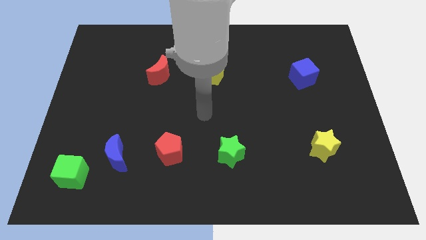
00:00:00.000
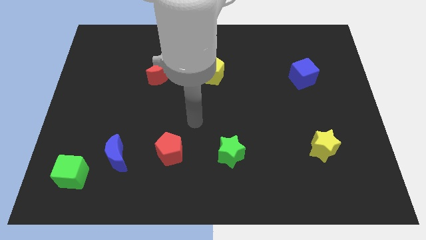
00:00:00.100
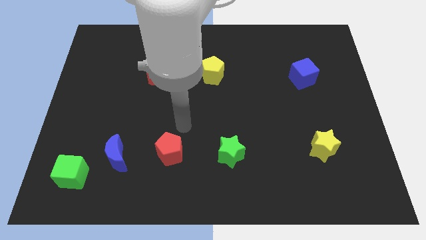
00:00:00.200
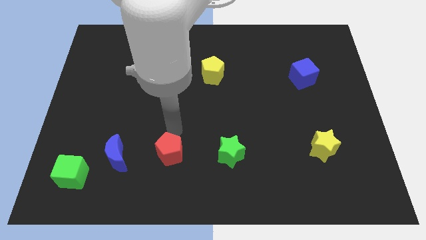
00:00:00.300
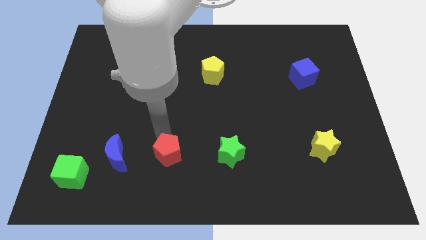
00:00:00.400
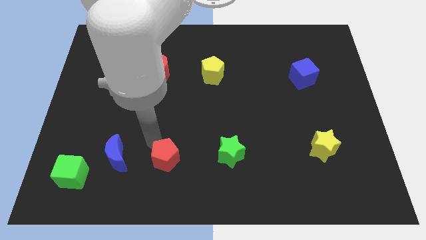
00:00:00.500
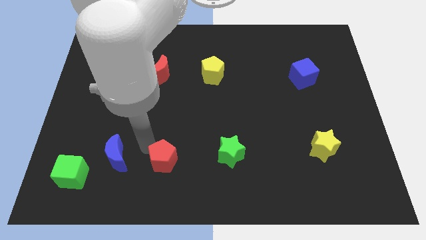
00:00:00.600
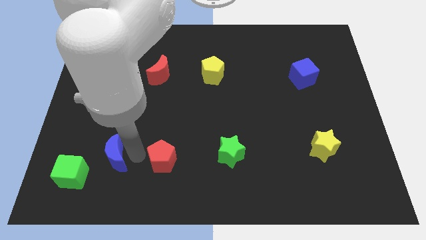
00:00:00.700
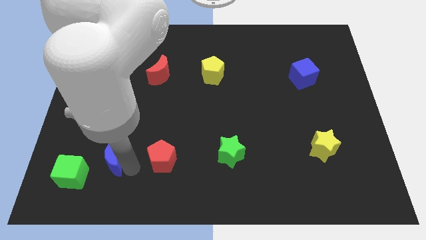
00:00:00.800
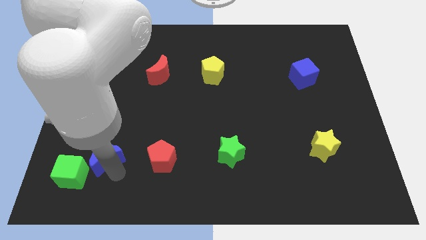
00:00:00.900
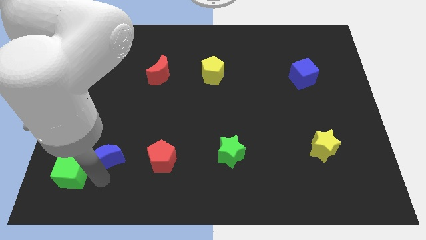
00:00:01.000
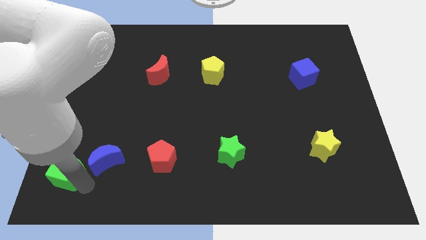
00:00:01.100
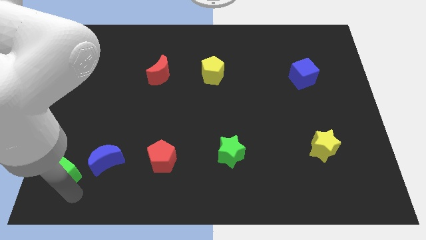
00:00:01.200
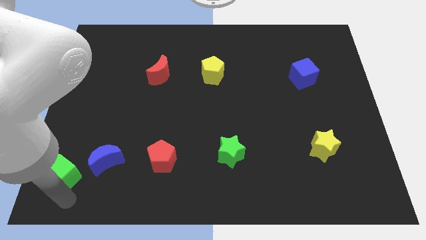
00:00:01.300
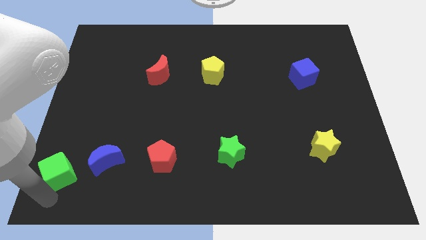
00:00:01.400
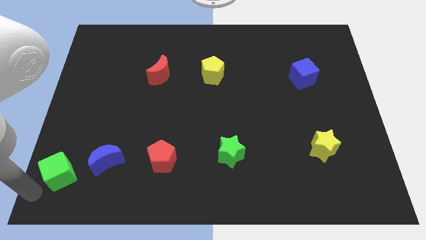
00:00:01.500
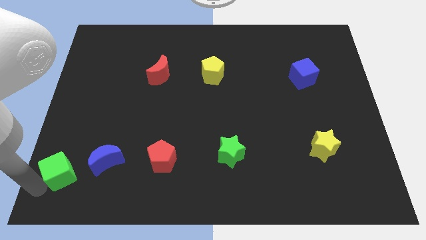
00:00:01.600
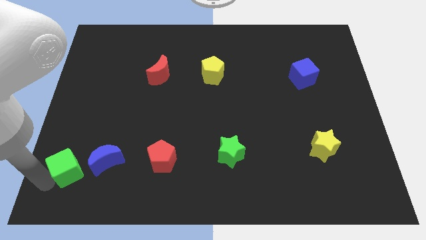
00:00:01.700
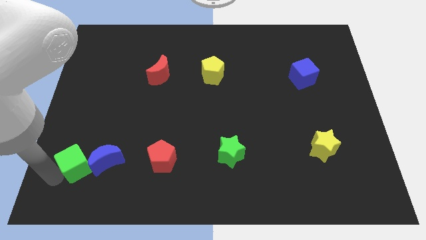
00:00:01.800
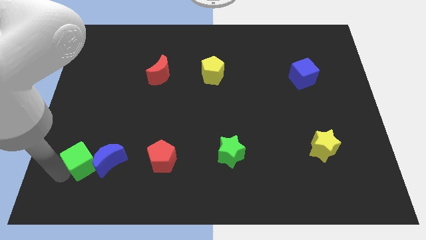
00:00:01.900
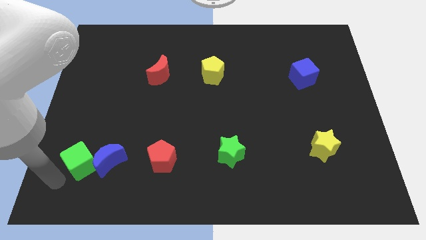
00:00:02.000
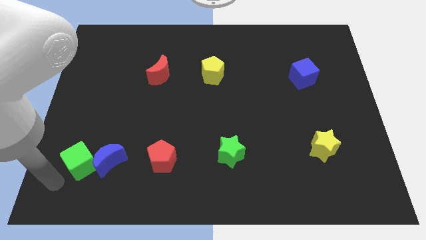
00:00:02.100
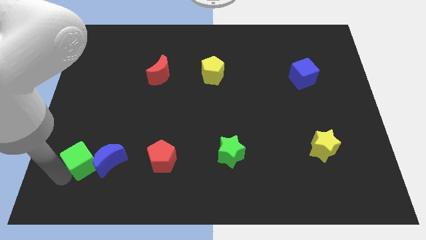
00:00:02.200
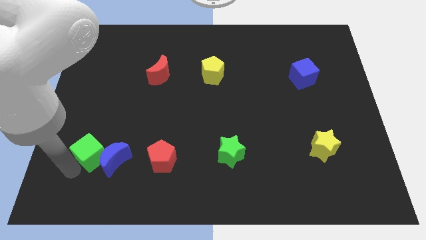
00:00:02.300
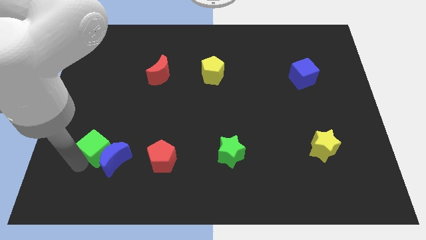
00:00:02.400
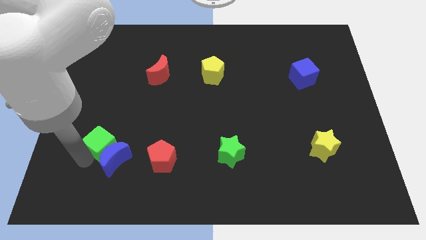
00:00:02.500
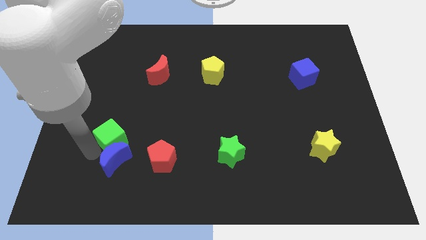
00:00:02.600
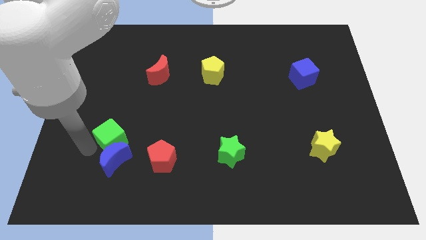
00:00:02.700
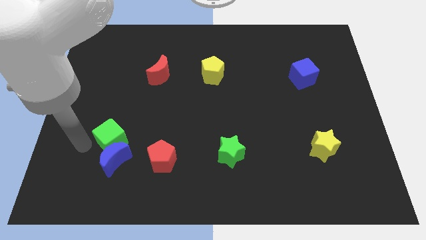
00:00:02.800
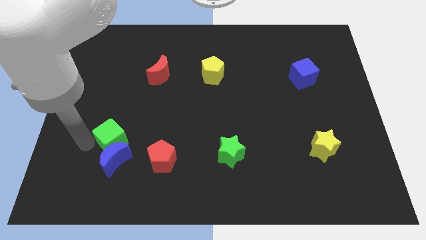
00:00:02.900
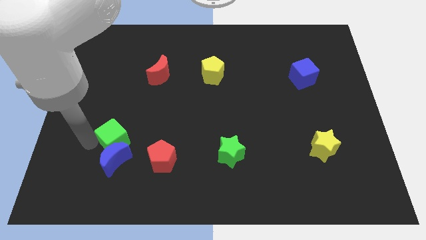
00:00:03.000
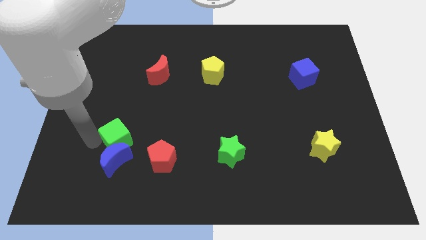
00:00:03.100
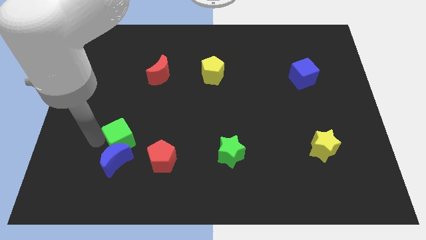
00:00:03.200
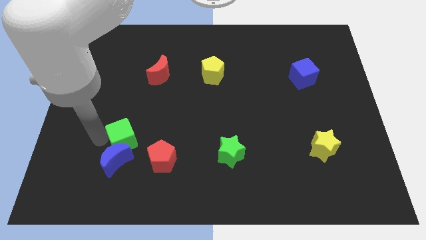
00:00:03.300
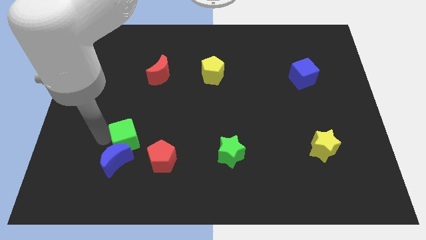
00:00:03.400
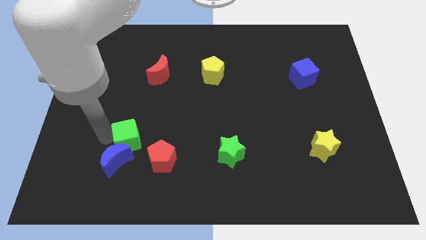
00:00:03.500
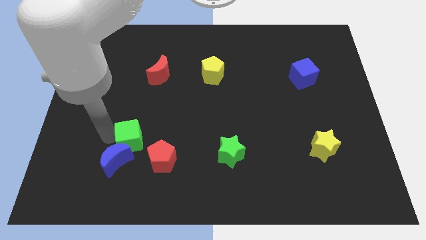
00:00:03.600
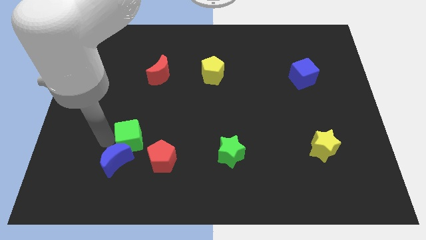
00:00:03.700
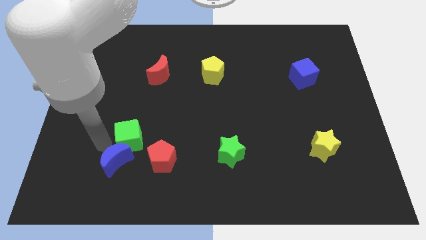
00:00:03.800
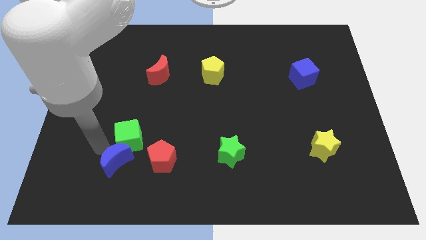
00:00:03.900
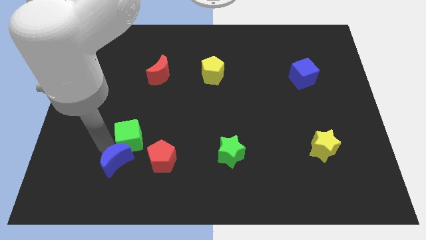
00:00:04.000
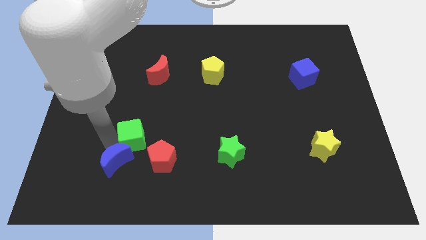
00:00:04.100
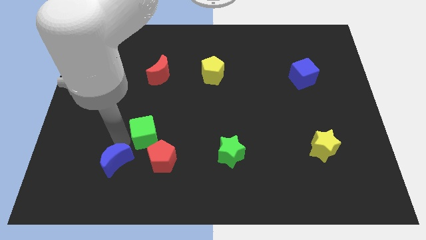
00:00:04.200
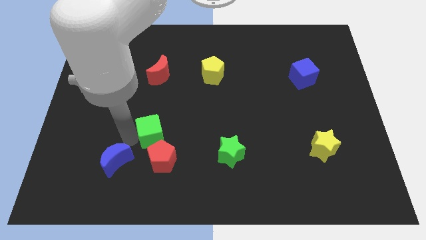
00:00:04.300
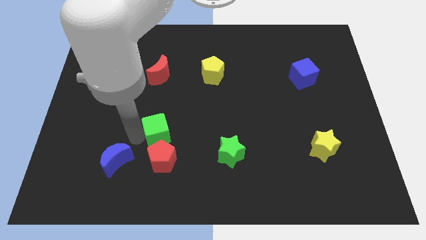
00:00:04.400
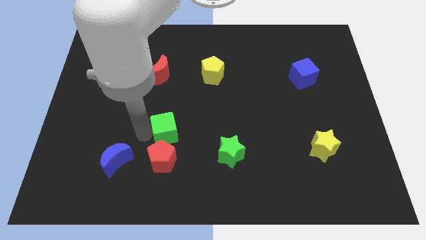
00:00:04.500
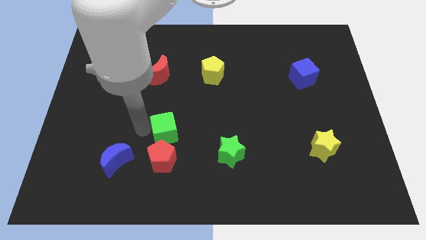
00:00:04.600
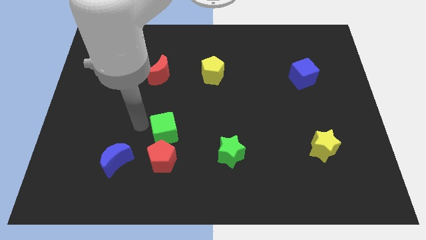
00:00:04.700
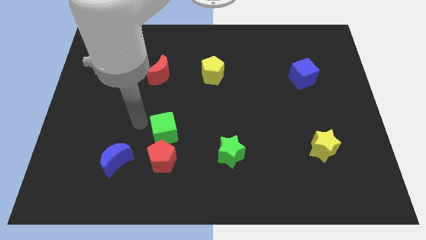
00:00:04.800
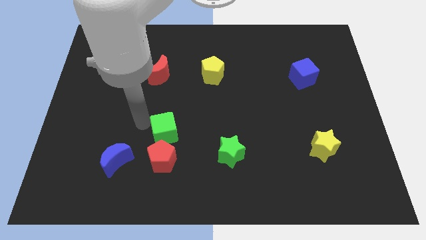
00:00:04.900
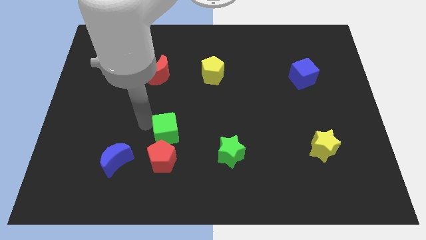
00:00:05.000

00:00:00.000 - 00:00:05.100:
move the green cube diagonally up and to the right of the red pentagon

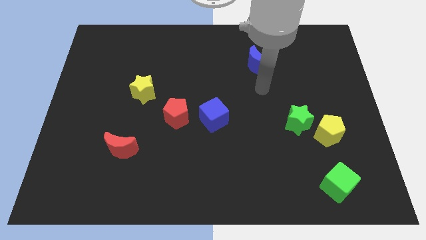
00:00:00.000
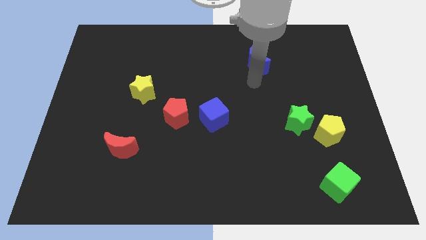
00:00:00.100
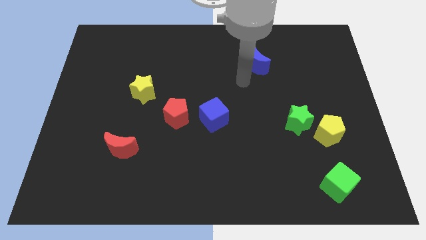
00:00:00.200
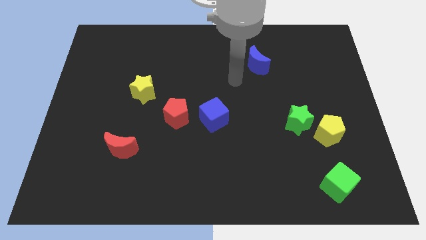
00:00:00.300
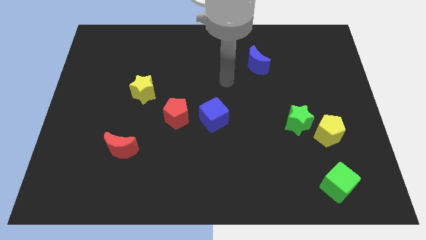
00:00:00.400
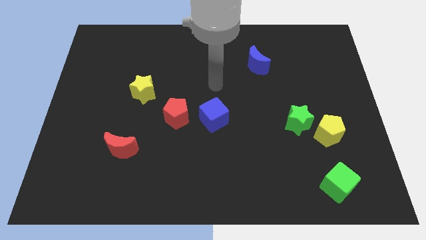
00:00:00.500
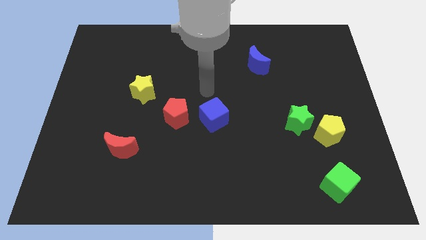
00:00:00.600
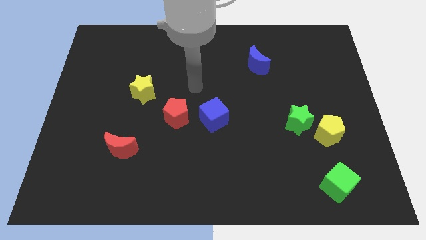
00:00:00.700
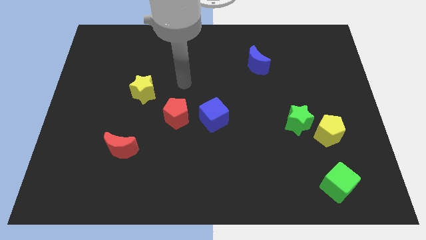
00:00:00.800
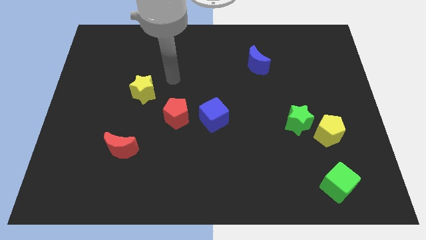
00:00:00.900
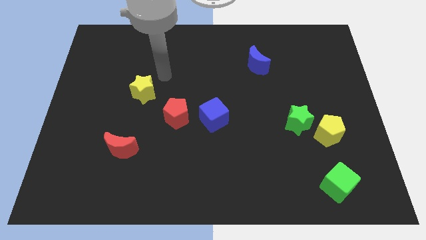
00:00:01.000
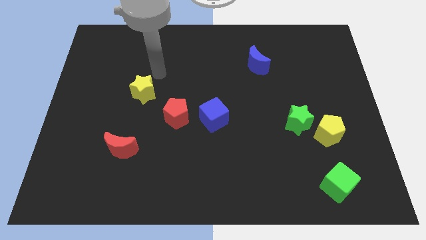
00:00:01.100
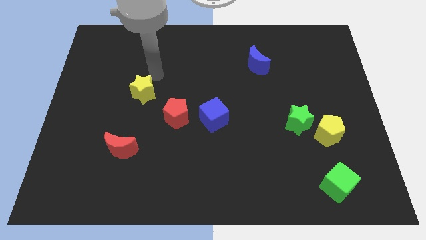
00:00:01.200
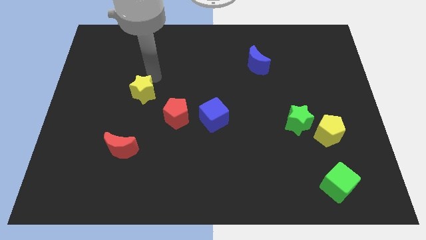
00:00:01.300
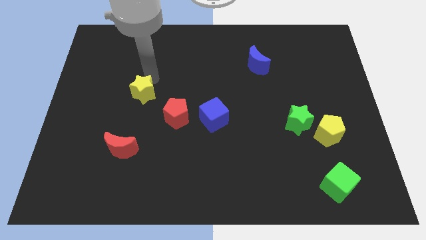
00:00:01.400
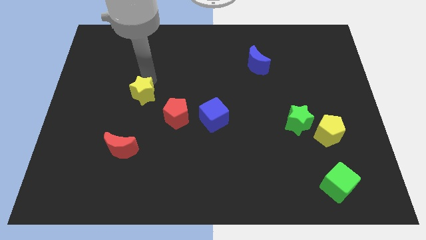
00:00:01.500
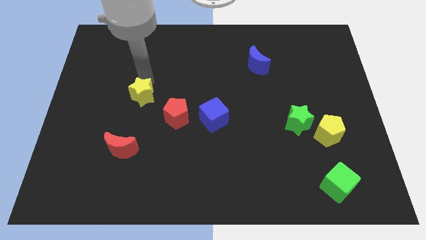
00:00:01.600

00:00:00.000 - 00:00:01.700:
slide the yellow star above the red moon

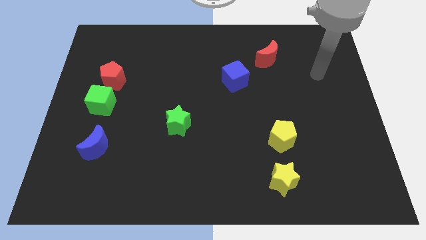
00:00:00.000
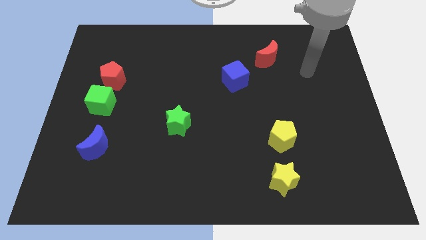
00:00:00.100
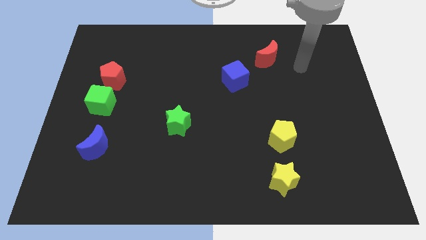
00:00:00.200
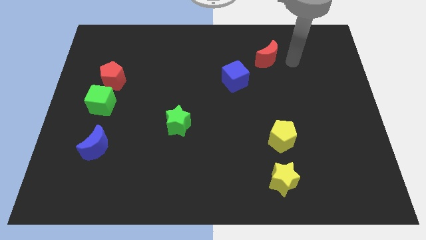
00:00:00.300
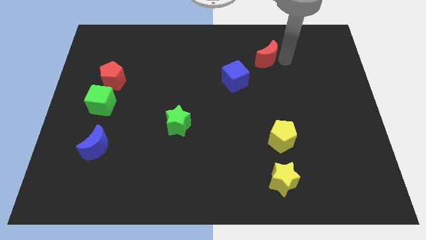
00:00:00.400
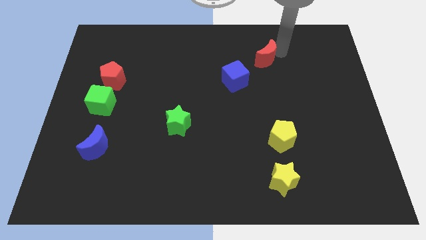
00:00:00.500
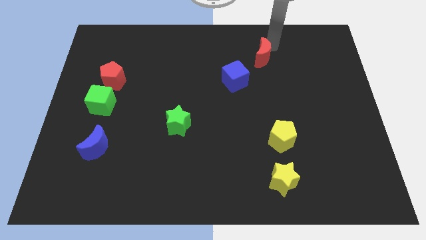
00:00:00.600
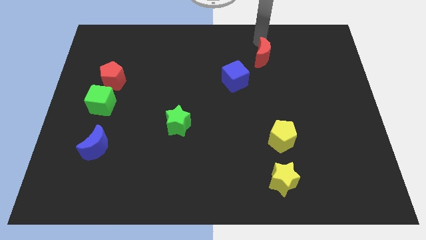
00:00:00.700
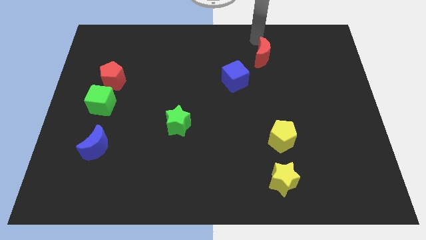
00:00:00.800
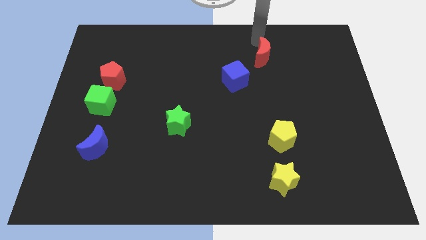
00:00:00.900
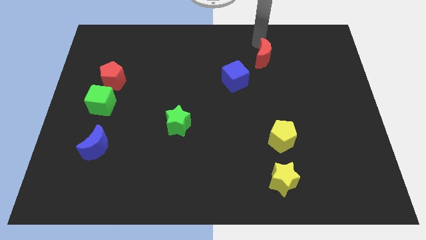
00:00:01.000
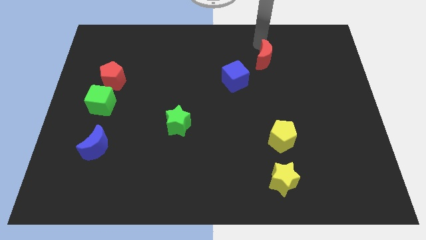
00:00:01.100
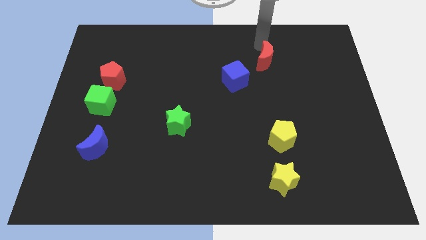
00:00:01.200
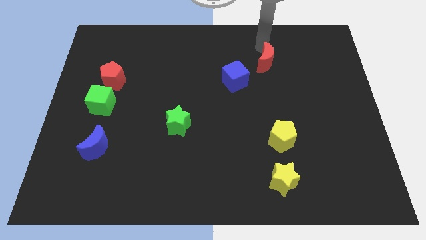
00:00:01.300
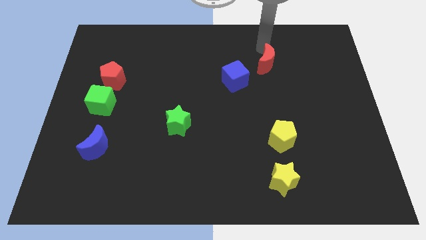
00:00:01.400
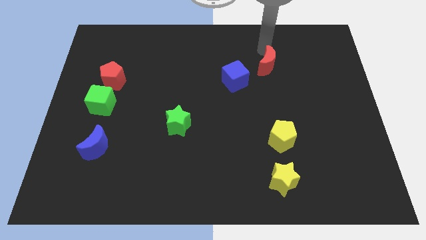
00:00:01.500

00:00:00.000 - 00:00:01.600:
move the red moon just right of the blue cube
